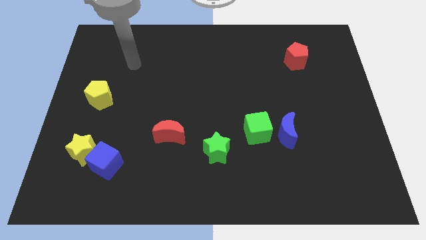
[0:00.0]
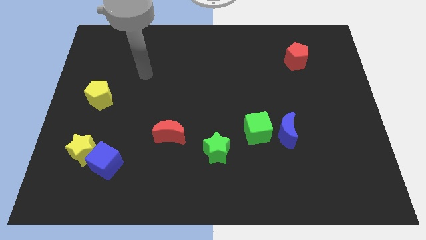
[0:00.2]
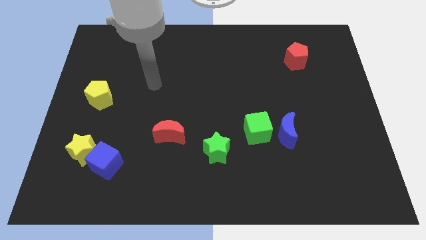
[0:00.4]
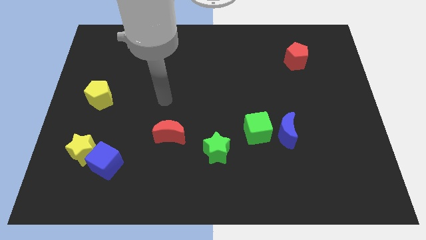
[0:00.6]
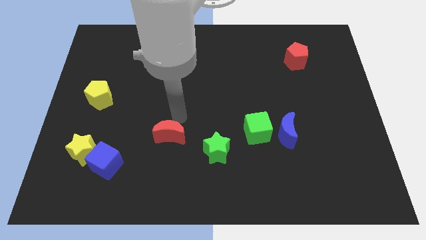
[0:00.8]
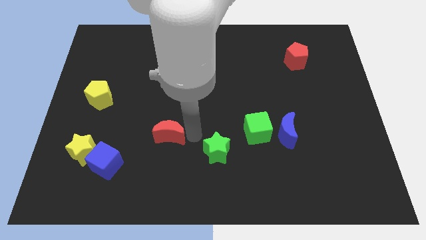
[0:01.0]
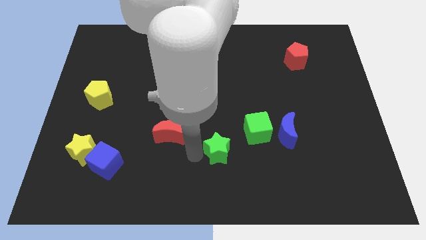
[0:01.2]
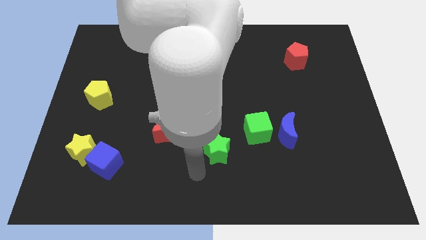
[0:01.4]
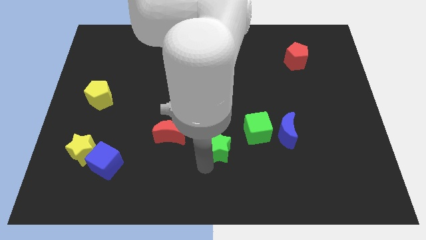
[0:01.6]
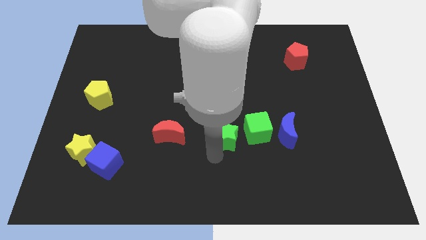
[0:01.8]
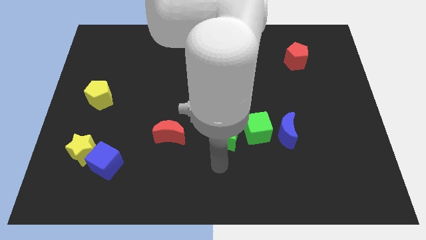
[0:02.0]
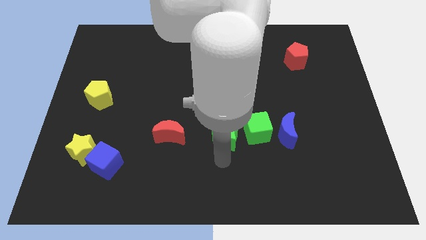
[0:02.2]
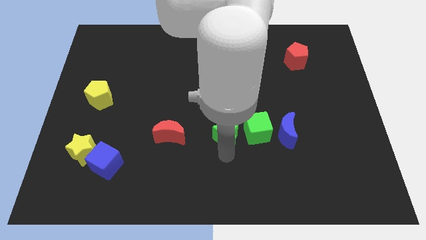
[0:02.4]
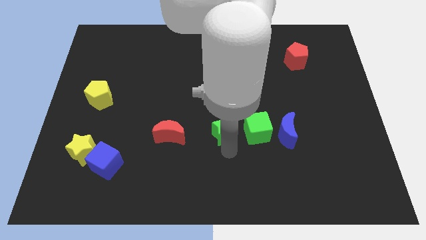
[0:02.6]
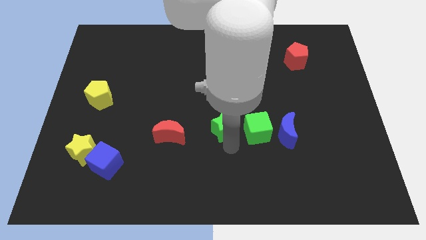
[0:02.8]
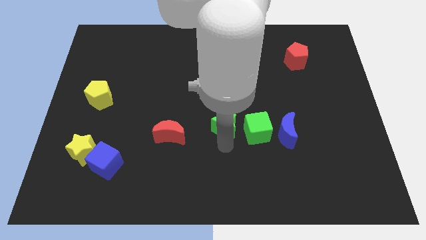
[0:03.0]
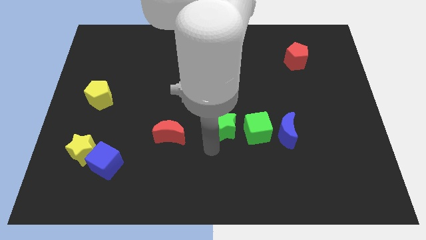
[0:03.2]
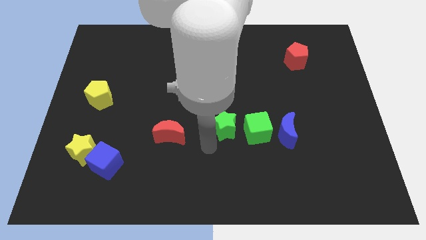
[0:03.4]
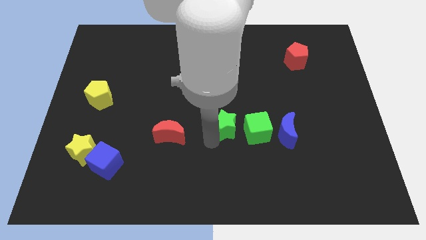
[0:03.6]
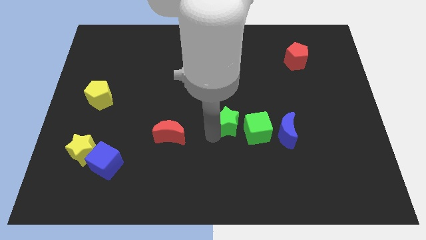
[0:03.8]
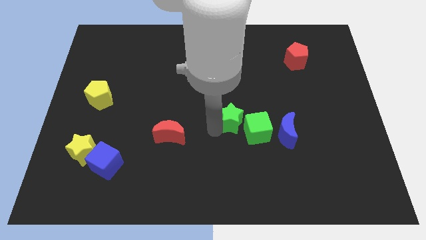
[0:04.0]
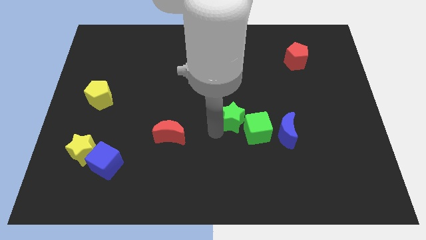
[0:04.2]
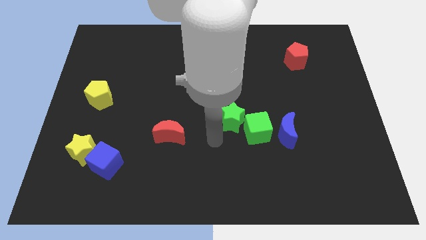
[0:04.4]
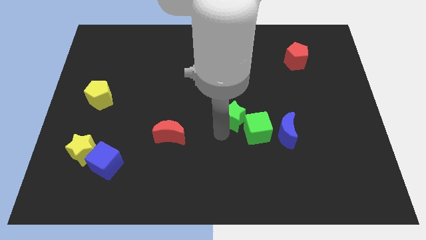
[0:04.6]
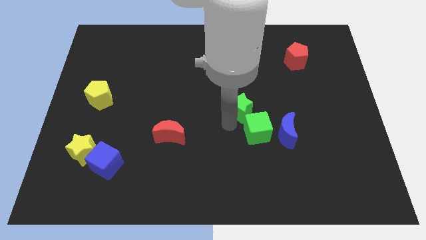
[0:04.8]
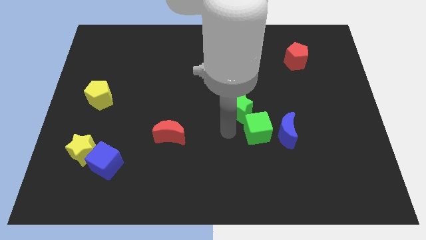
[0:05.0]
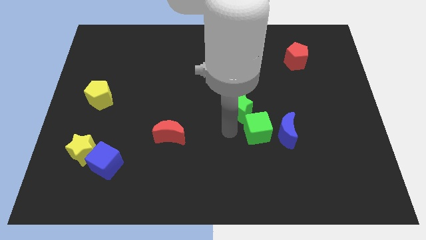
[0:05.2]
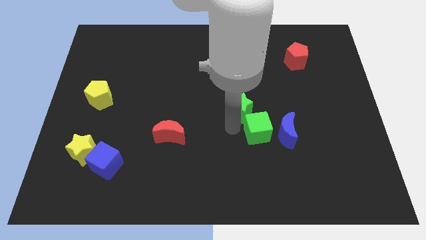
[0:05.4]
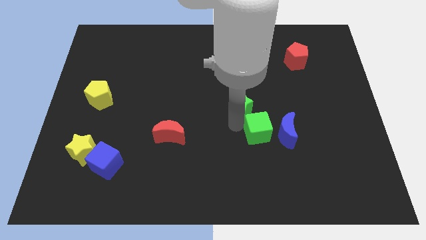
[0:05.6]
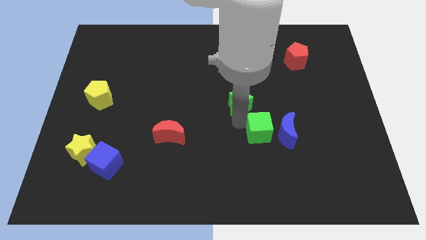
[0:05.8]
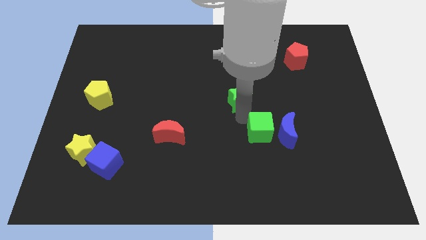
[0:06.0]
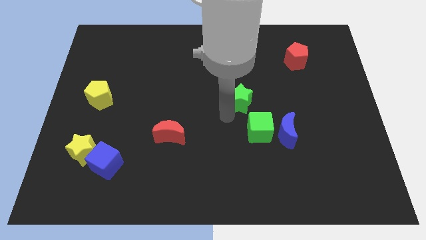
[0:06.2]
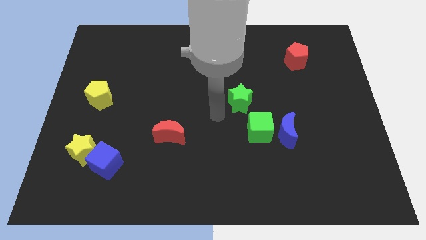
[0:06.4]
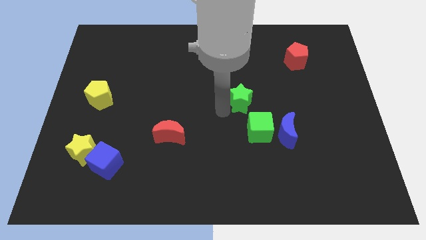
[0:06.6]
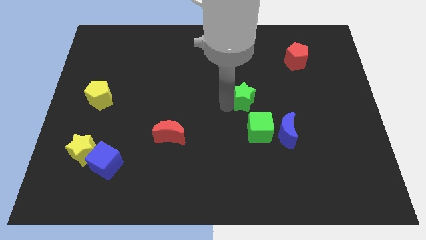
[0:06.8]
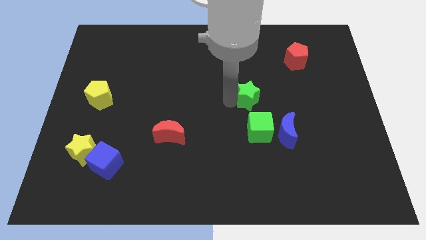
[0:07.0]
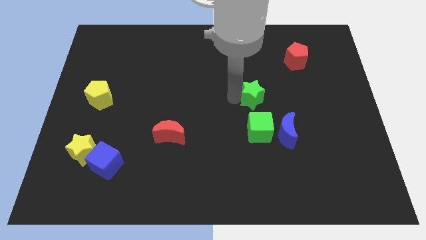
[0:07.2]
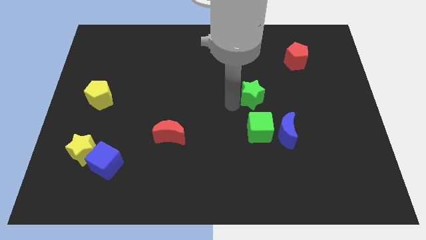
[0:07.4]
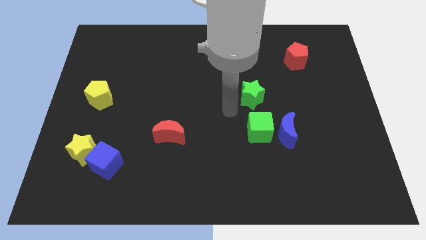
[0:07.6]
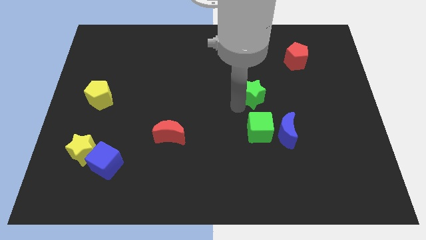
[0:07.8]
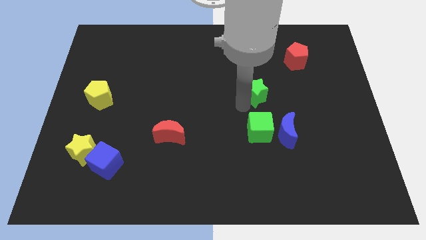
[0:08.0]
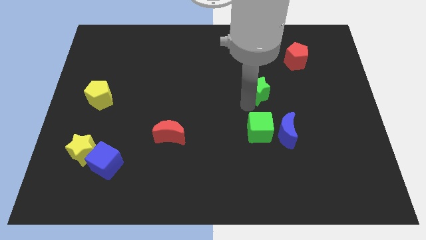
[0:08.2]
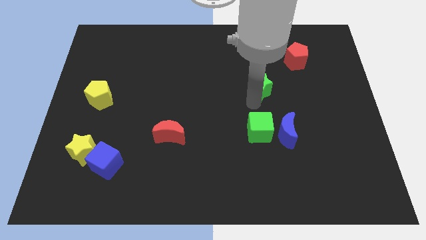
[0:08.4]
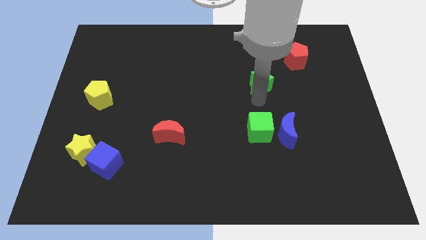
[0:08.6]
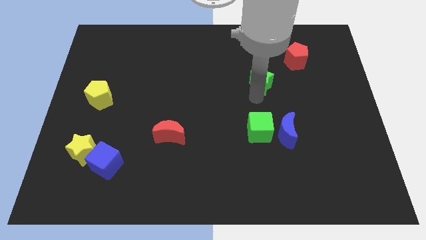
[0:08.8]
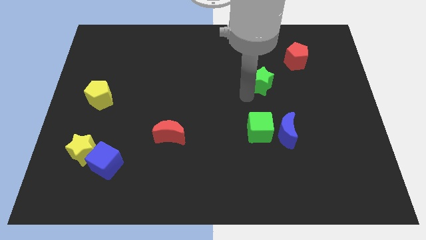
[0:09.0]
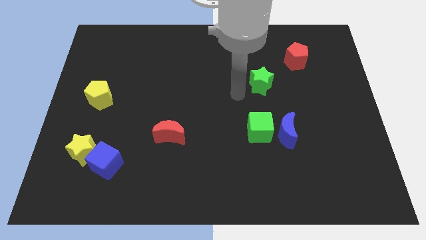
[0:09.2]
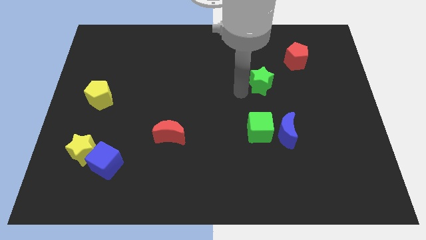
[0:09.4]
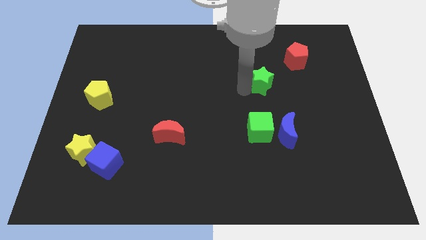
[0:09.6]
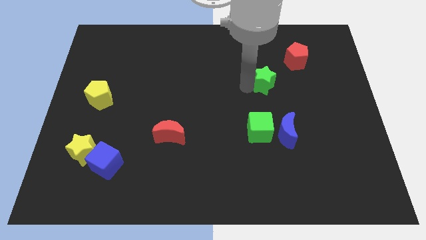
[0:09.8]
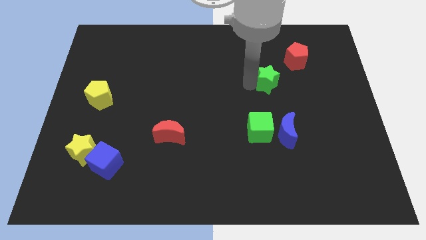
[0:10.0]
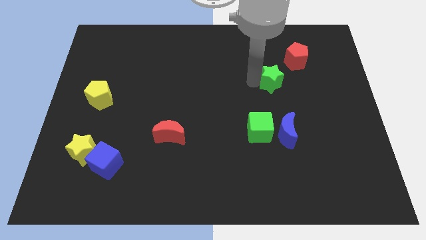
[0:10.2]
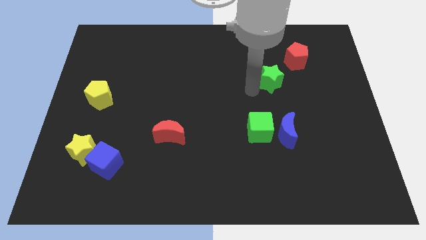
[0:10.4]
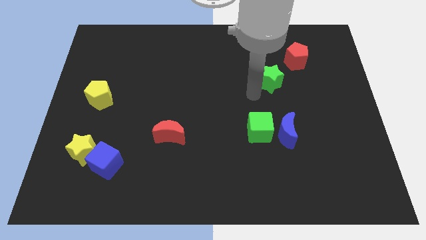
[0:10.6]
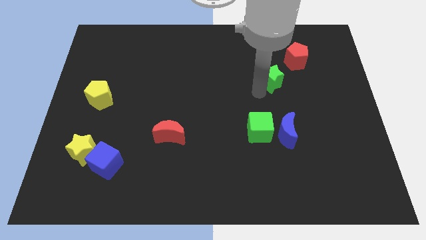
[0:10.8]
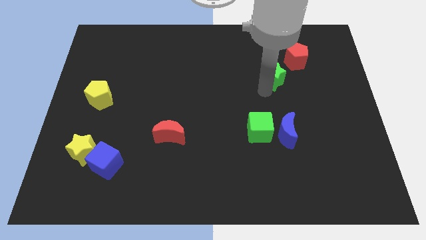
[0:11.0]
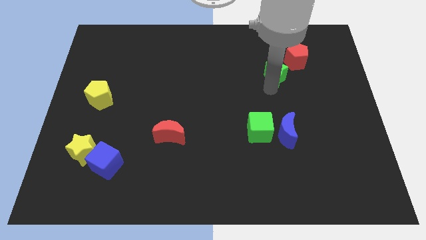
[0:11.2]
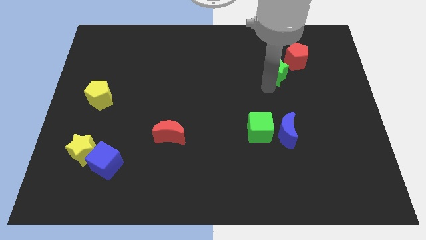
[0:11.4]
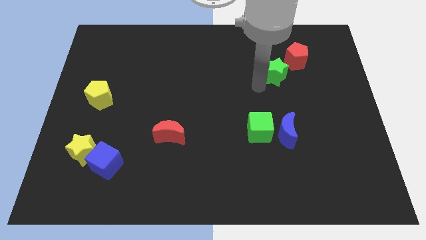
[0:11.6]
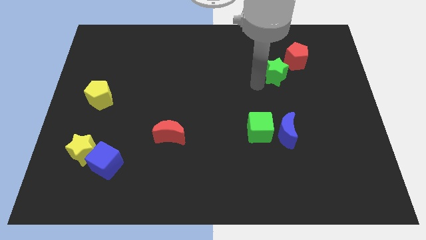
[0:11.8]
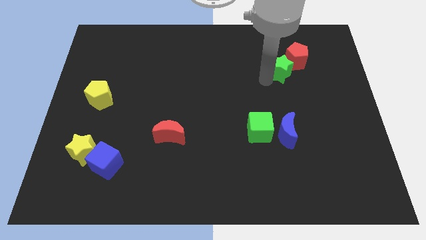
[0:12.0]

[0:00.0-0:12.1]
push the green star close to the red pentagon

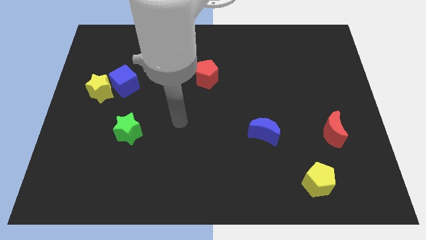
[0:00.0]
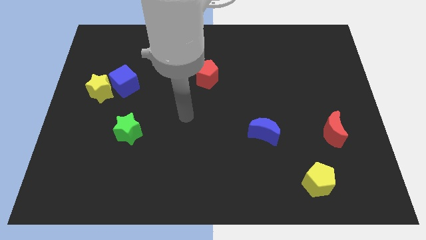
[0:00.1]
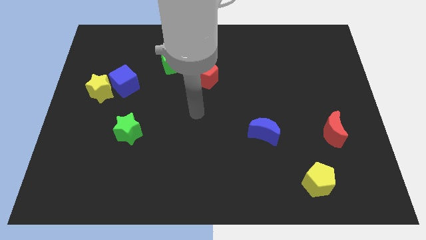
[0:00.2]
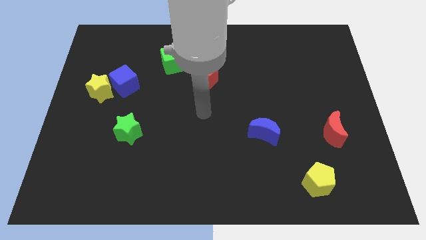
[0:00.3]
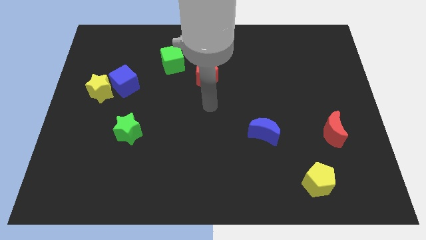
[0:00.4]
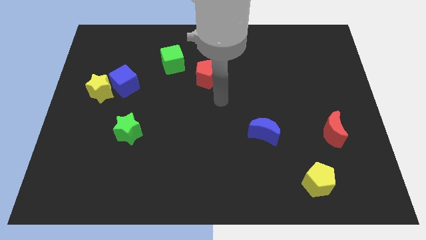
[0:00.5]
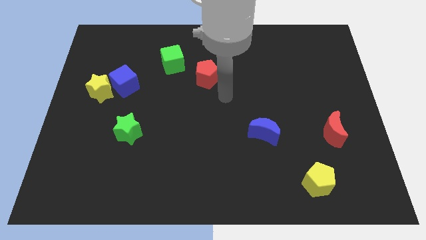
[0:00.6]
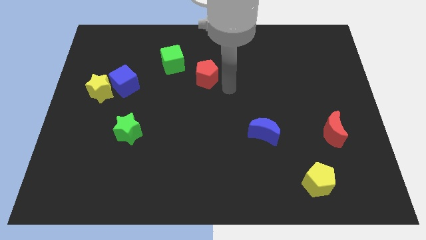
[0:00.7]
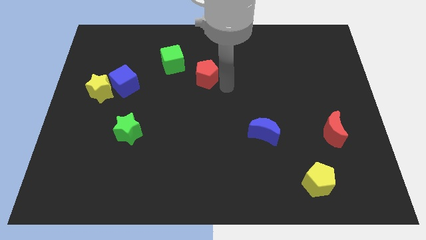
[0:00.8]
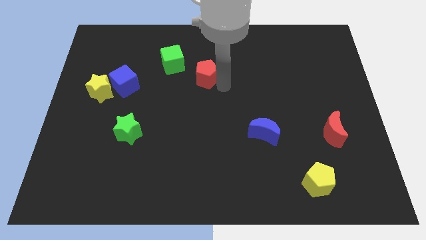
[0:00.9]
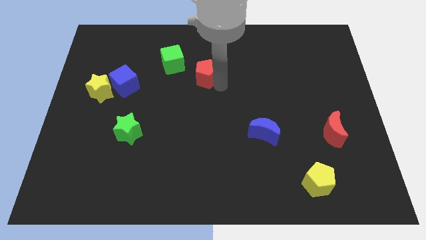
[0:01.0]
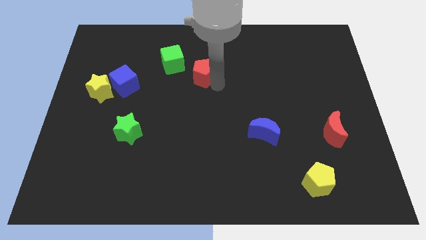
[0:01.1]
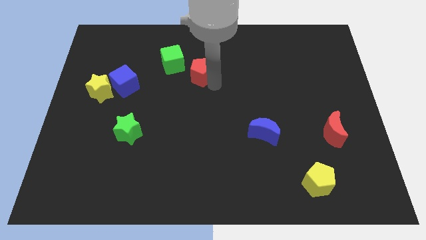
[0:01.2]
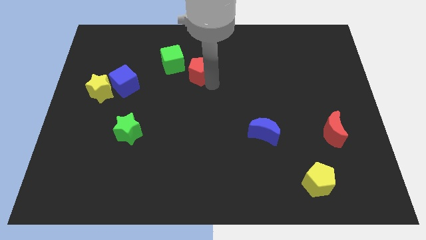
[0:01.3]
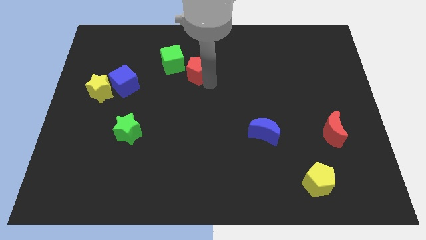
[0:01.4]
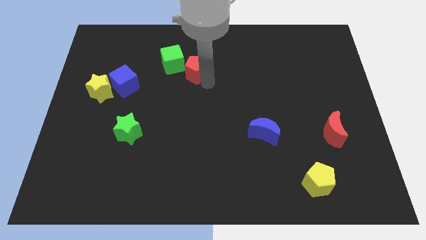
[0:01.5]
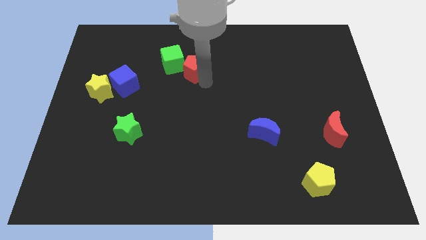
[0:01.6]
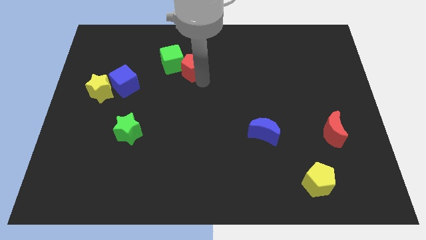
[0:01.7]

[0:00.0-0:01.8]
move the red pentagon to the green cube
